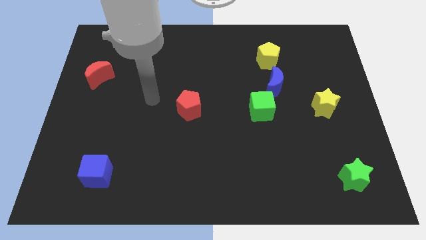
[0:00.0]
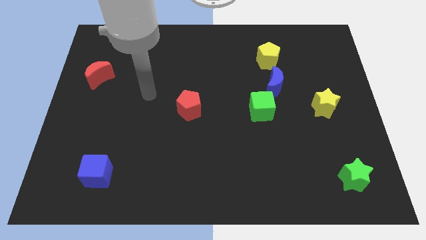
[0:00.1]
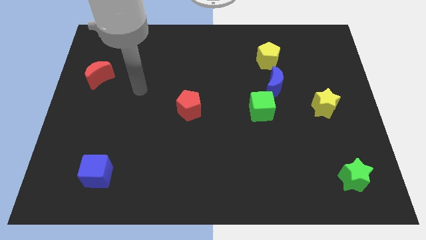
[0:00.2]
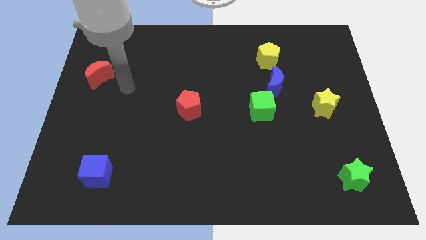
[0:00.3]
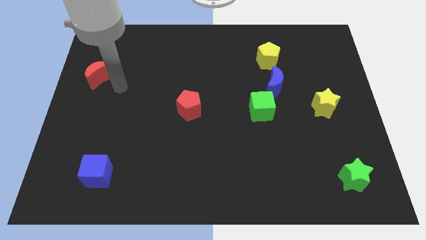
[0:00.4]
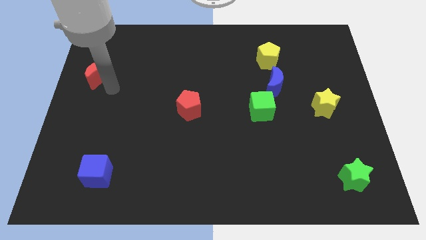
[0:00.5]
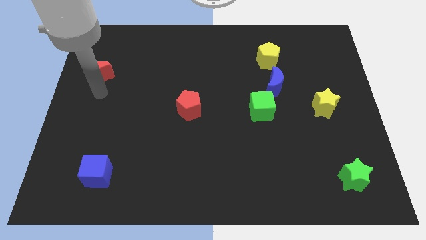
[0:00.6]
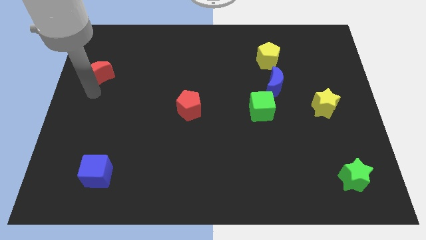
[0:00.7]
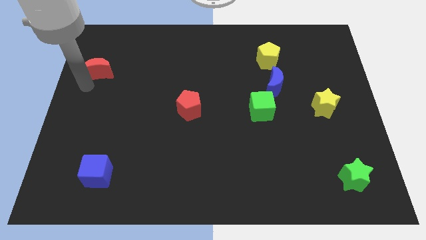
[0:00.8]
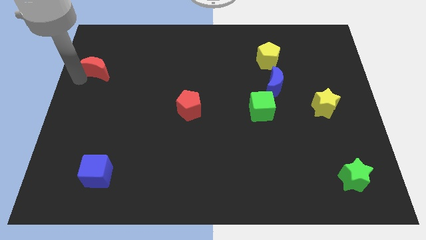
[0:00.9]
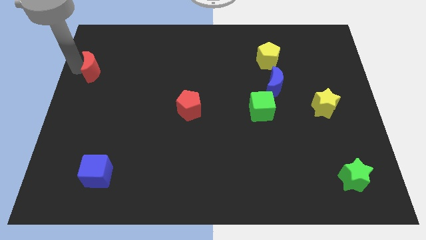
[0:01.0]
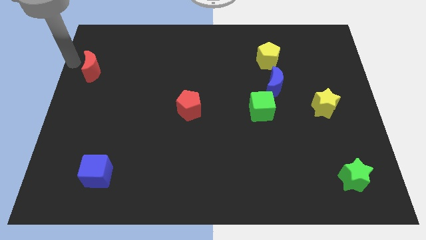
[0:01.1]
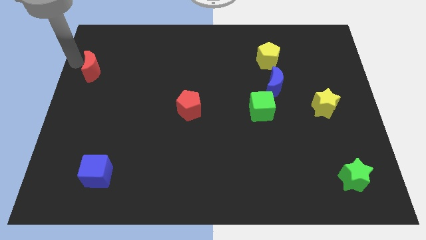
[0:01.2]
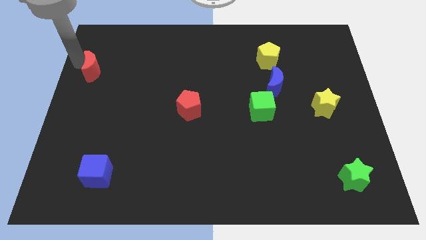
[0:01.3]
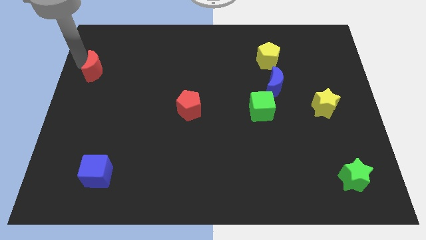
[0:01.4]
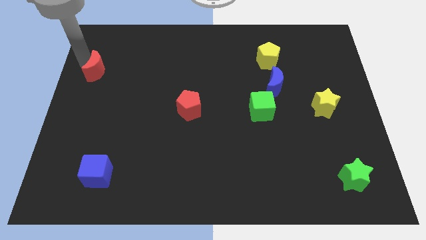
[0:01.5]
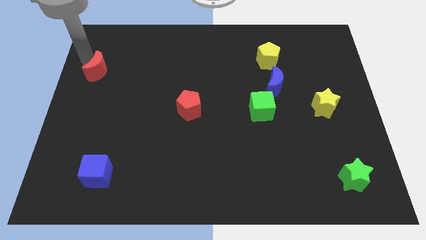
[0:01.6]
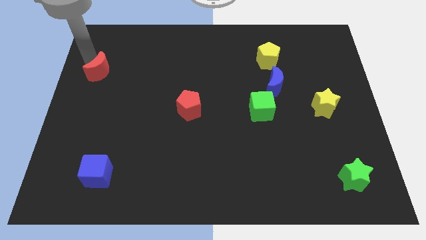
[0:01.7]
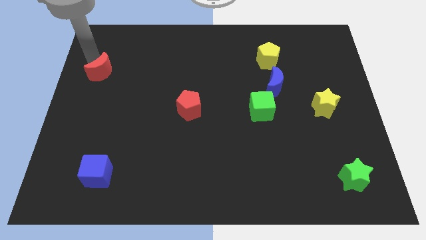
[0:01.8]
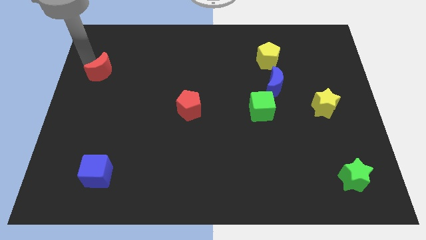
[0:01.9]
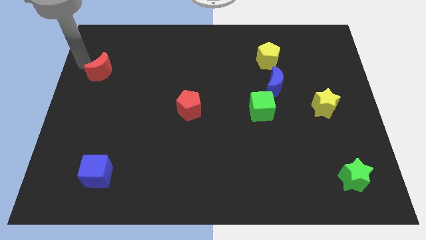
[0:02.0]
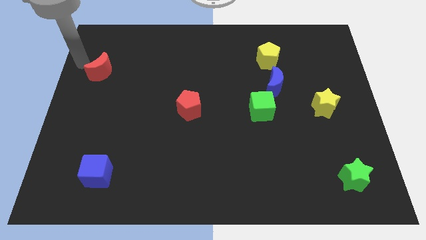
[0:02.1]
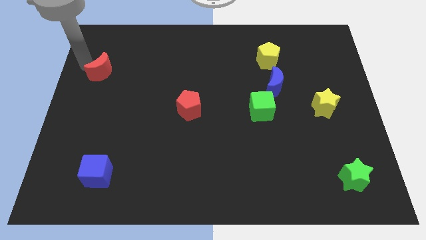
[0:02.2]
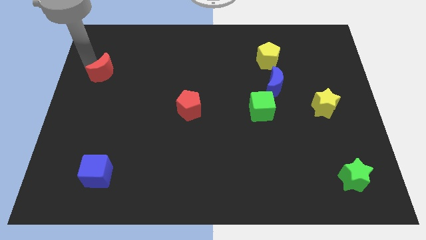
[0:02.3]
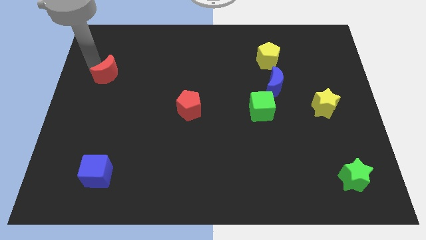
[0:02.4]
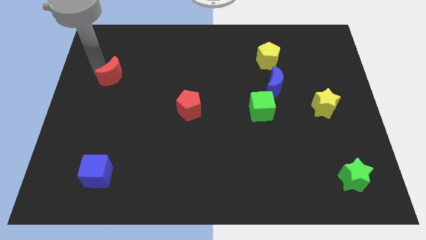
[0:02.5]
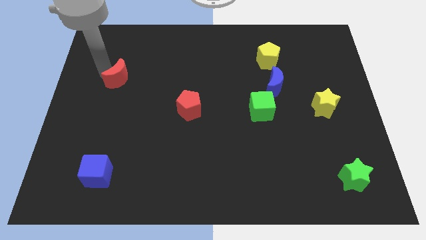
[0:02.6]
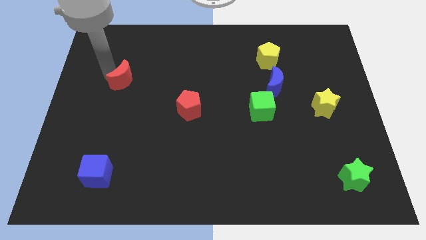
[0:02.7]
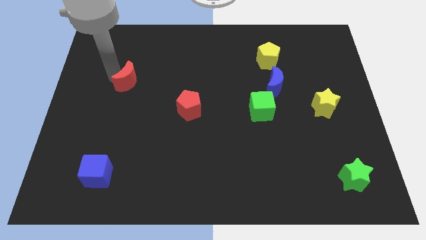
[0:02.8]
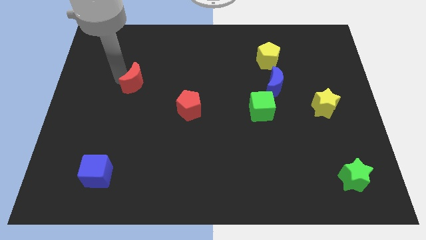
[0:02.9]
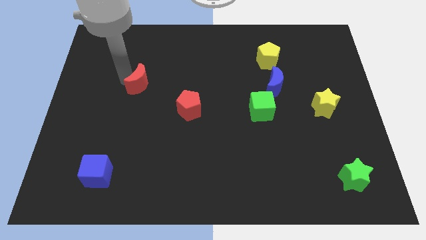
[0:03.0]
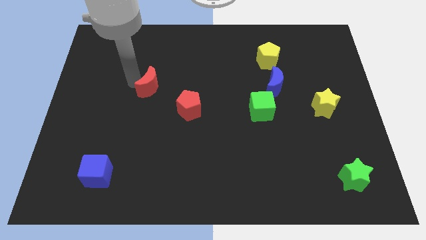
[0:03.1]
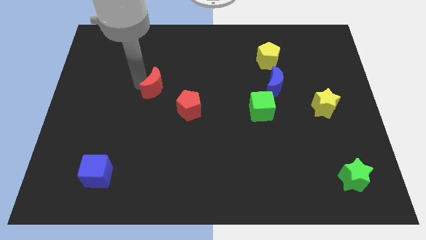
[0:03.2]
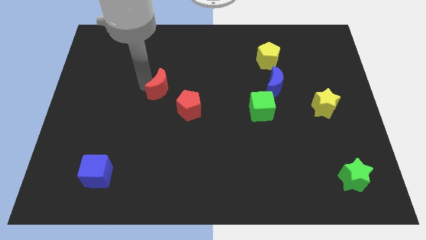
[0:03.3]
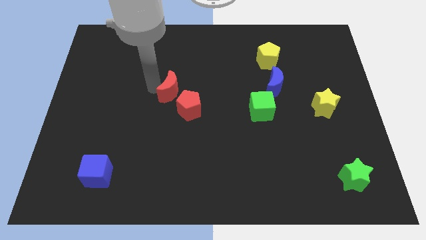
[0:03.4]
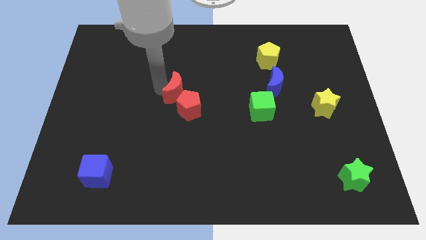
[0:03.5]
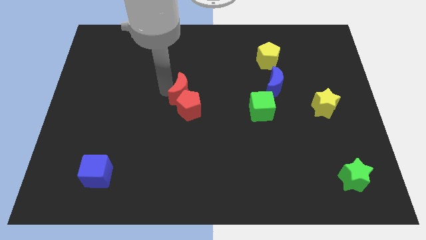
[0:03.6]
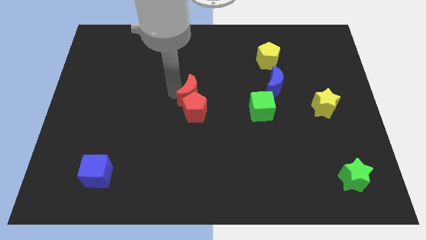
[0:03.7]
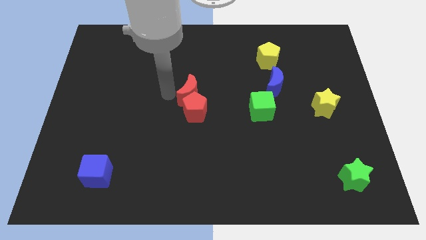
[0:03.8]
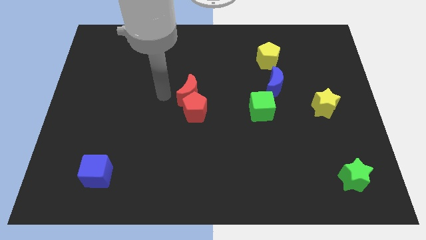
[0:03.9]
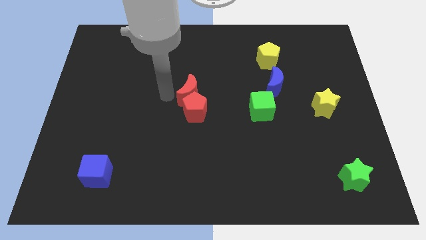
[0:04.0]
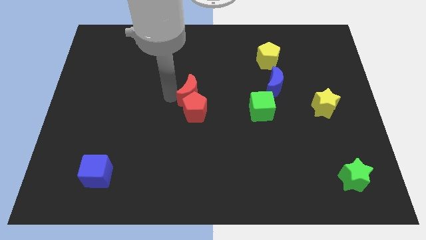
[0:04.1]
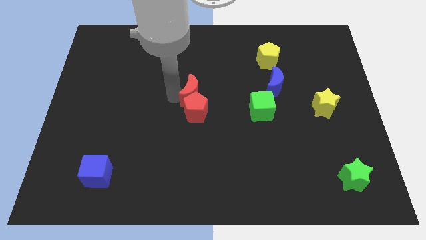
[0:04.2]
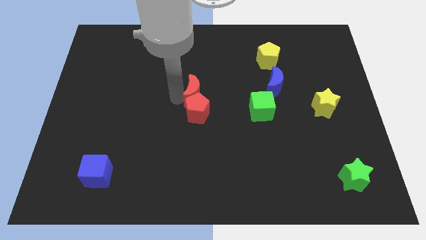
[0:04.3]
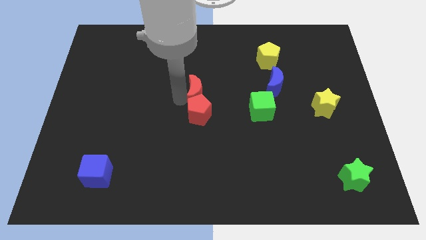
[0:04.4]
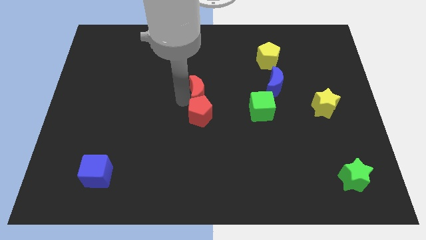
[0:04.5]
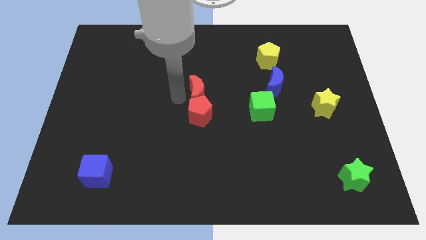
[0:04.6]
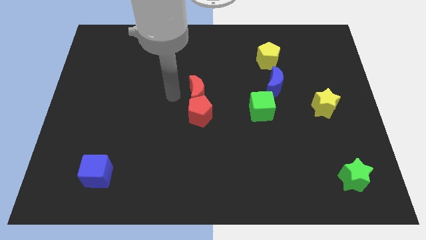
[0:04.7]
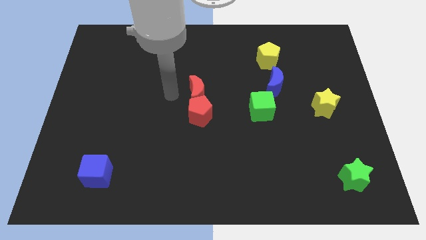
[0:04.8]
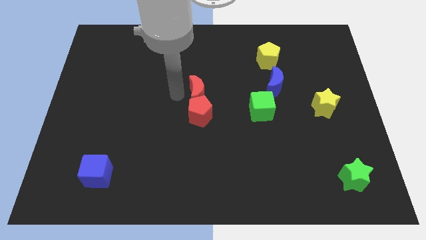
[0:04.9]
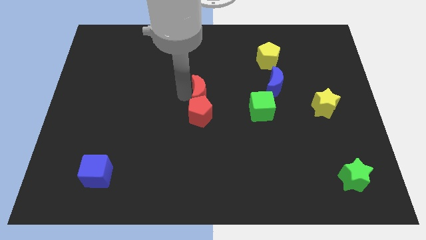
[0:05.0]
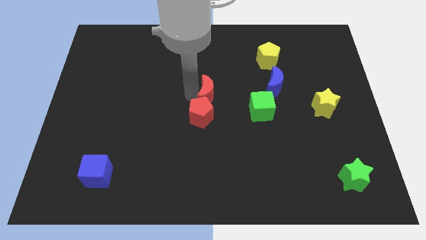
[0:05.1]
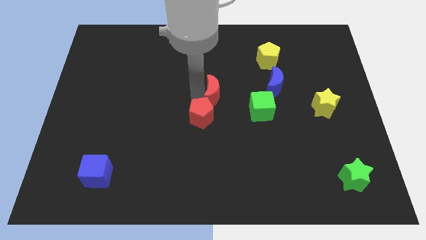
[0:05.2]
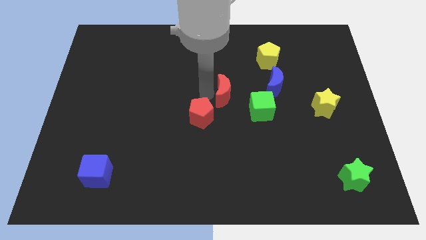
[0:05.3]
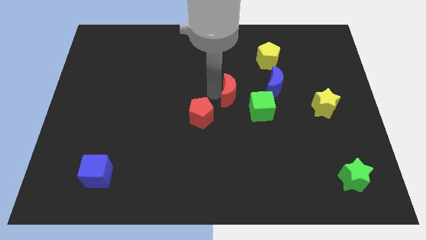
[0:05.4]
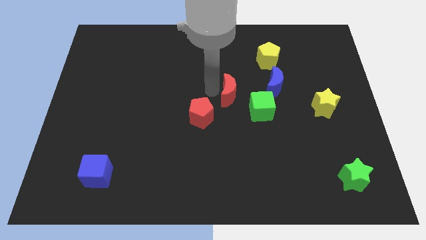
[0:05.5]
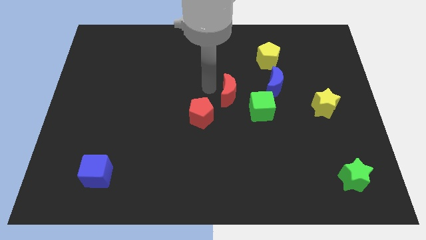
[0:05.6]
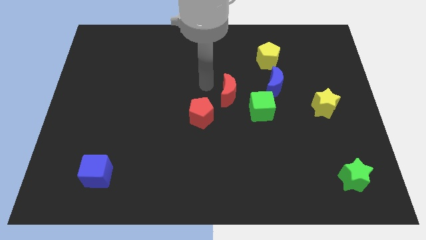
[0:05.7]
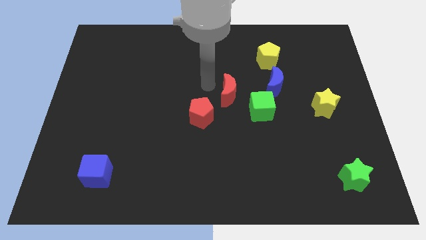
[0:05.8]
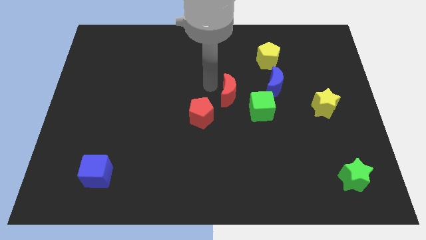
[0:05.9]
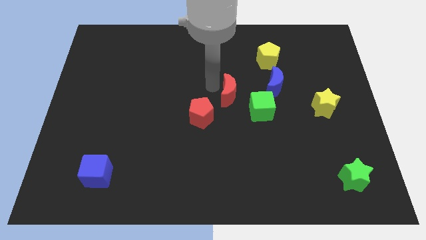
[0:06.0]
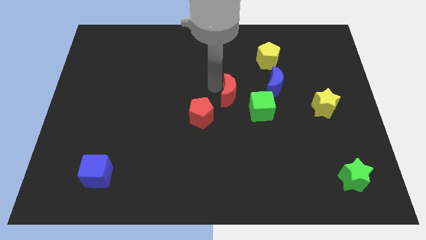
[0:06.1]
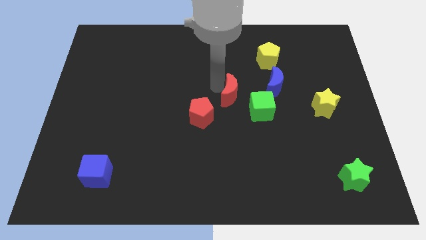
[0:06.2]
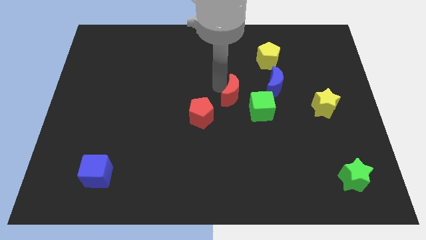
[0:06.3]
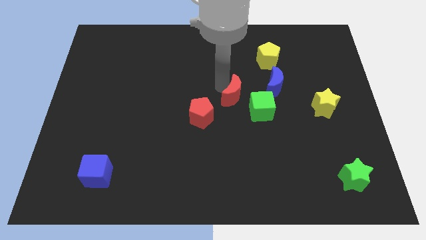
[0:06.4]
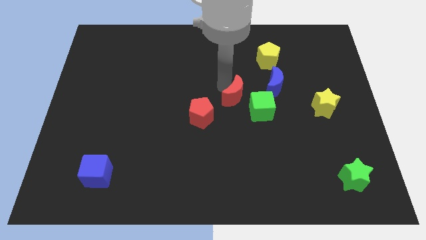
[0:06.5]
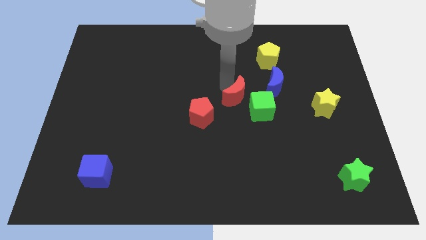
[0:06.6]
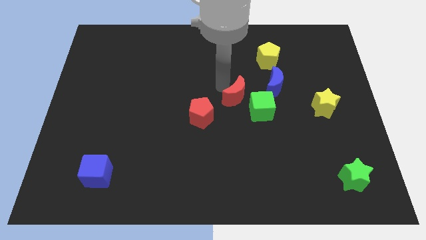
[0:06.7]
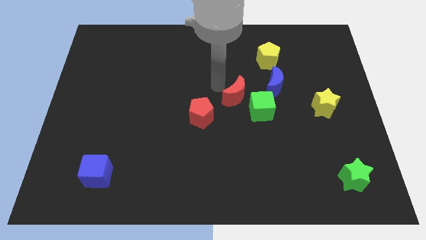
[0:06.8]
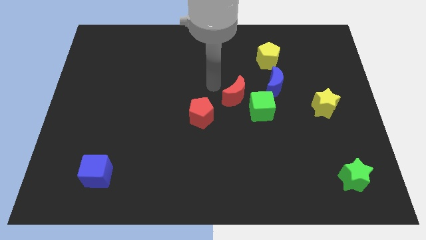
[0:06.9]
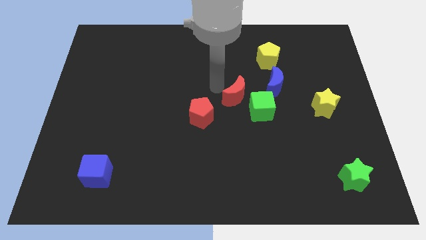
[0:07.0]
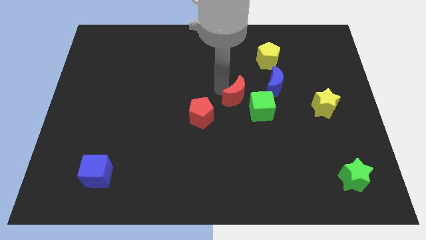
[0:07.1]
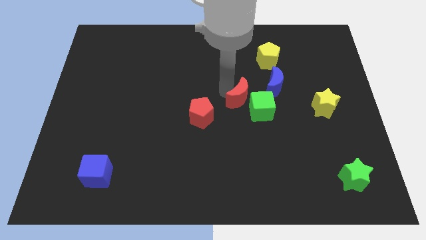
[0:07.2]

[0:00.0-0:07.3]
push the red moon next to the green cube
